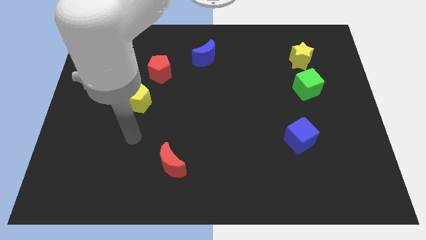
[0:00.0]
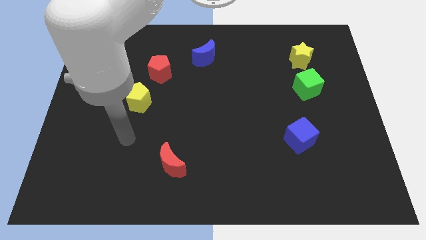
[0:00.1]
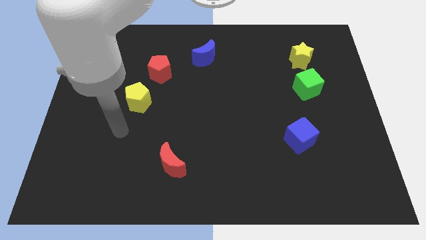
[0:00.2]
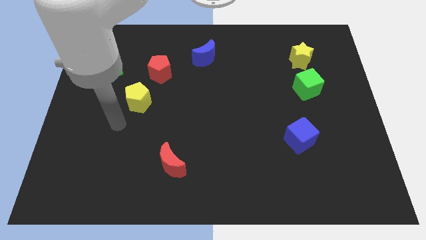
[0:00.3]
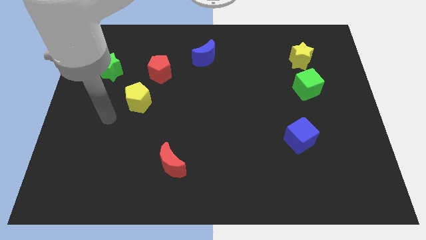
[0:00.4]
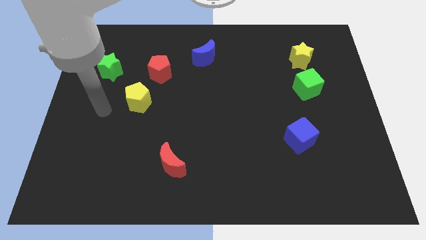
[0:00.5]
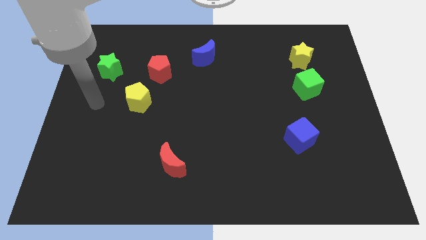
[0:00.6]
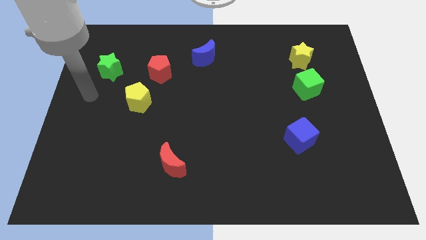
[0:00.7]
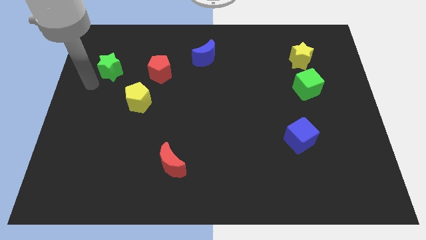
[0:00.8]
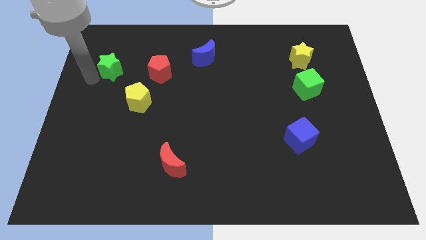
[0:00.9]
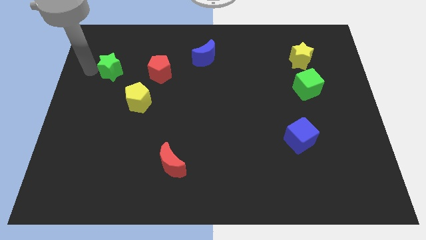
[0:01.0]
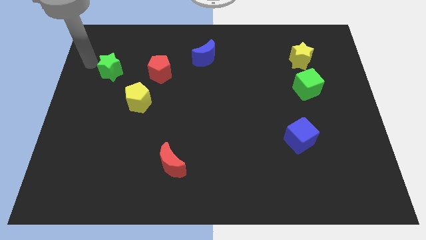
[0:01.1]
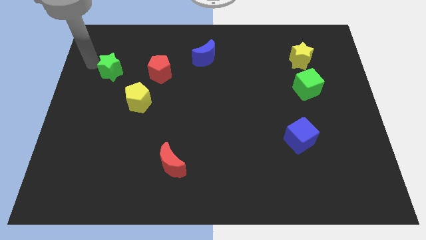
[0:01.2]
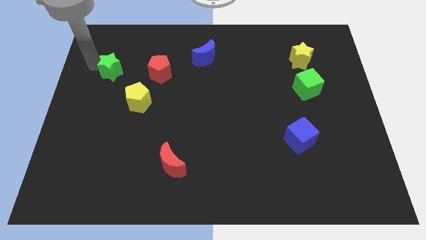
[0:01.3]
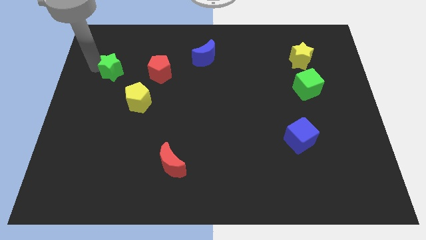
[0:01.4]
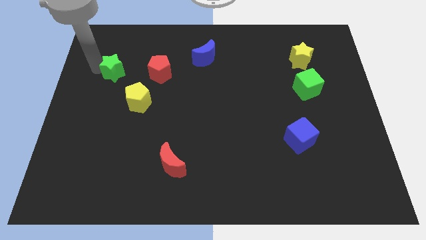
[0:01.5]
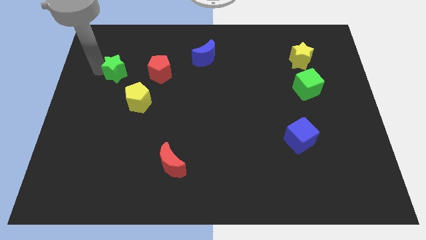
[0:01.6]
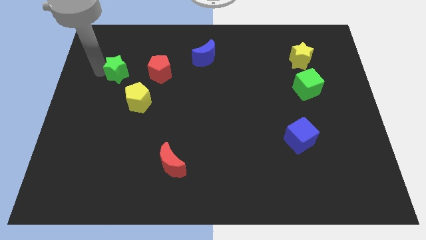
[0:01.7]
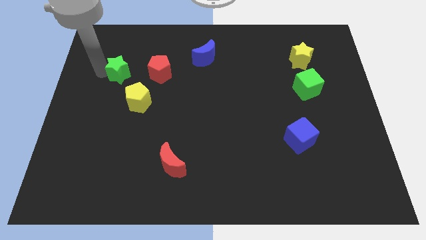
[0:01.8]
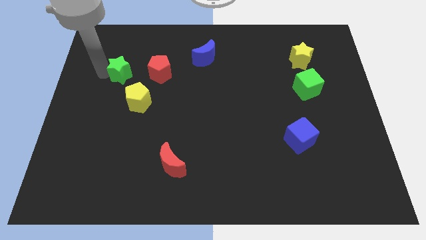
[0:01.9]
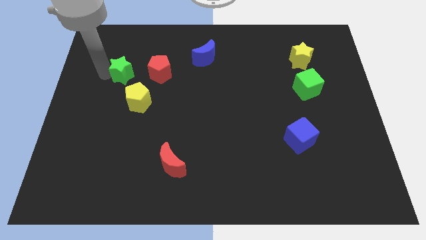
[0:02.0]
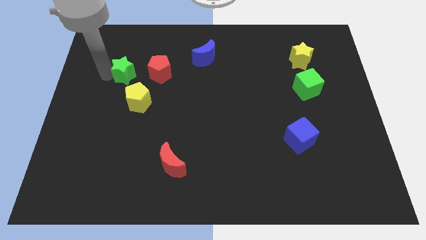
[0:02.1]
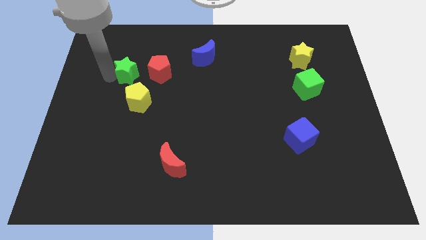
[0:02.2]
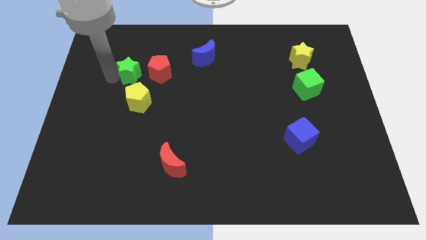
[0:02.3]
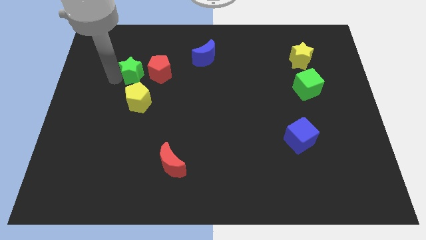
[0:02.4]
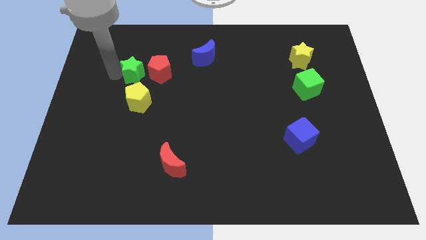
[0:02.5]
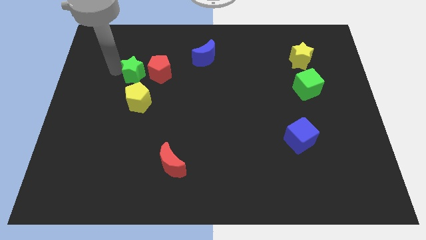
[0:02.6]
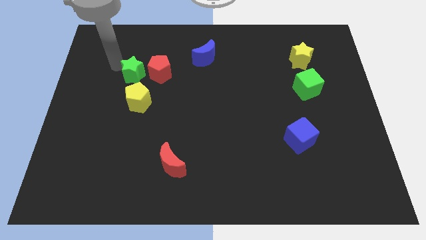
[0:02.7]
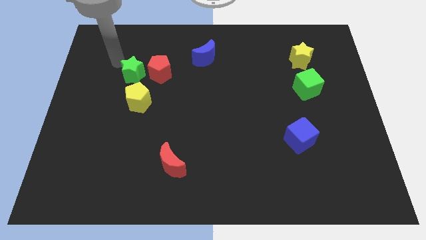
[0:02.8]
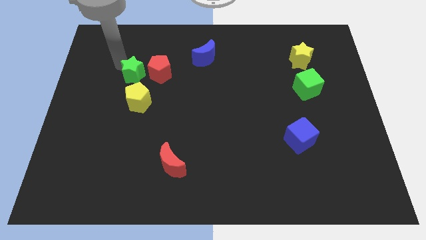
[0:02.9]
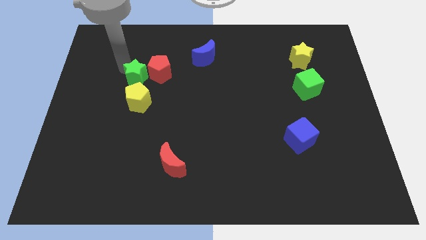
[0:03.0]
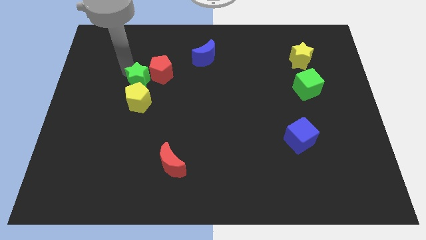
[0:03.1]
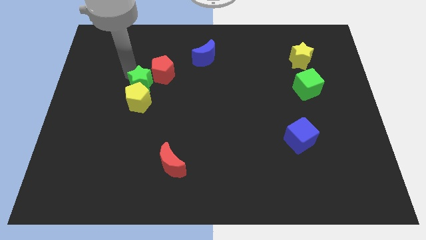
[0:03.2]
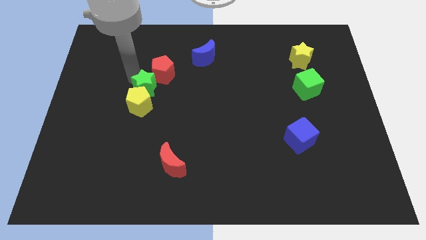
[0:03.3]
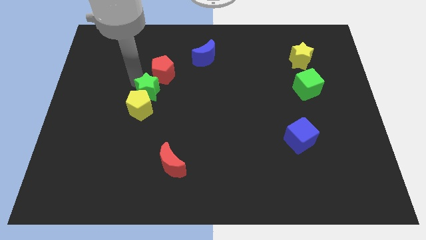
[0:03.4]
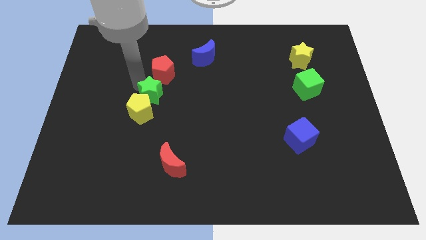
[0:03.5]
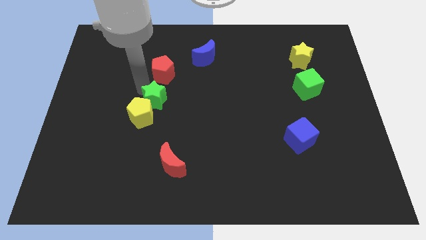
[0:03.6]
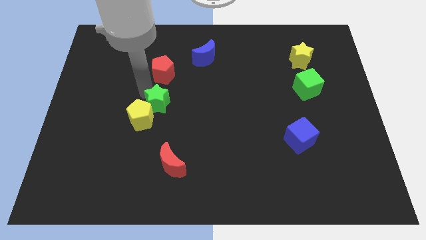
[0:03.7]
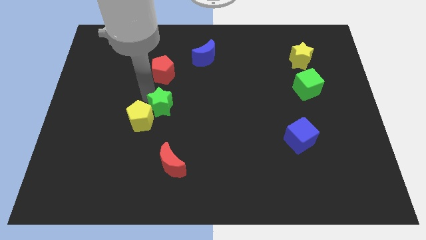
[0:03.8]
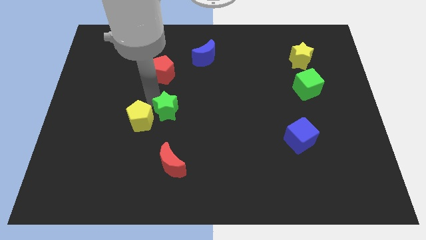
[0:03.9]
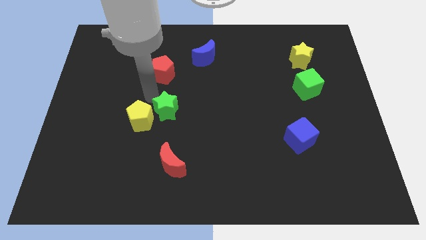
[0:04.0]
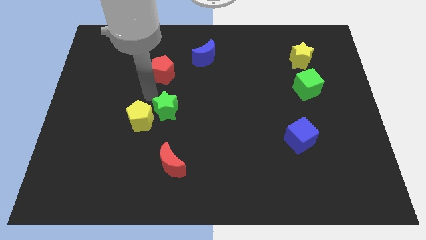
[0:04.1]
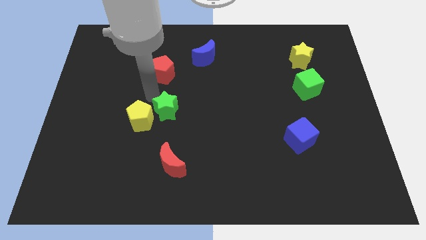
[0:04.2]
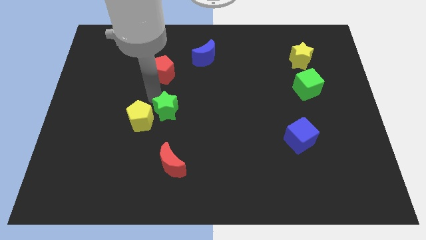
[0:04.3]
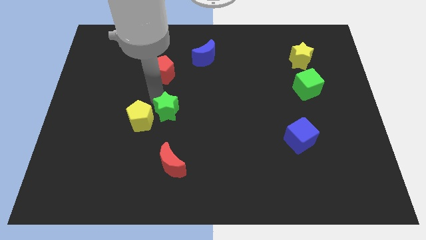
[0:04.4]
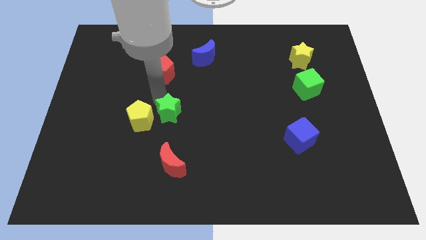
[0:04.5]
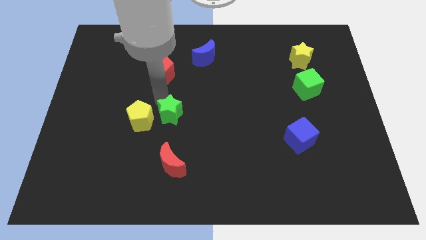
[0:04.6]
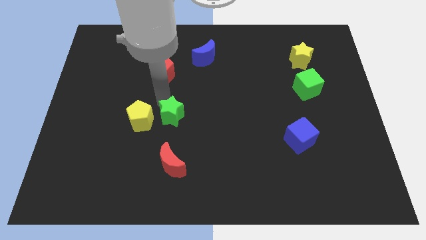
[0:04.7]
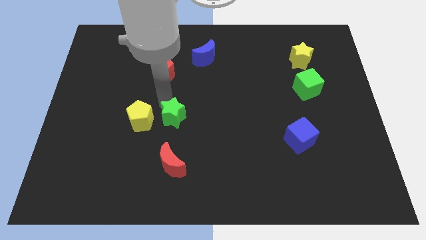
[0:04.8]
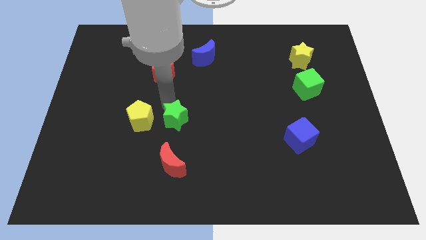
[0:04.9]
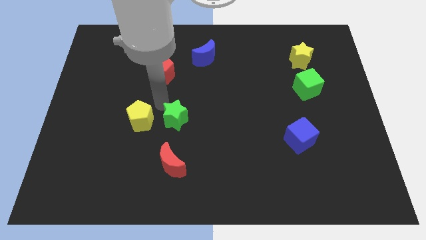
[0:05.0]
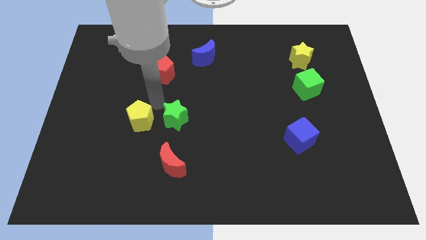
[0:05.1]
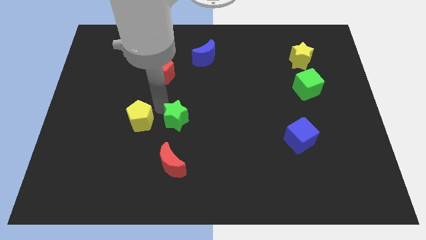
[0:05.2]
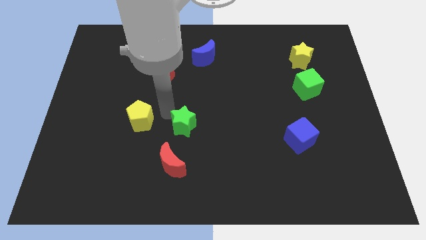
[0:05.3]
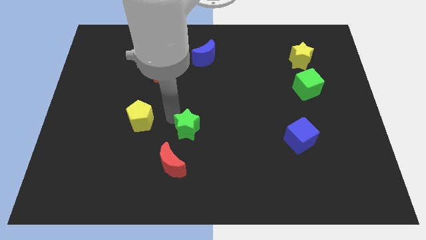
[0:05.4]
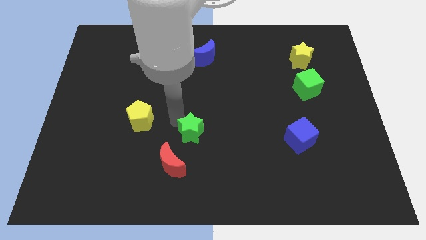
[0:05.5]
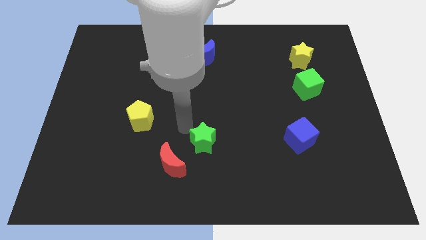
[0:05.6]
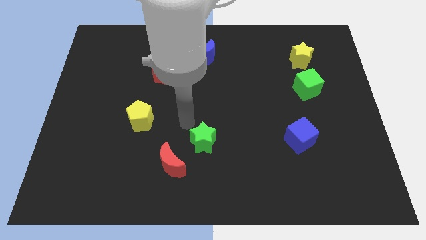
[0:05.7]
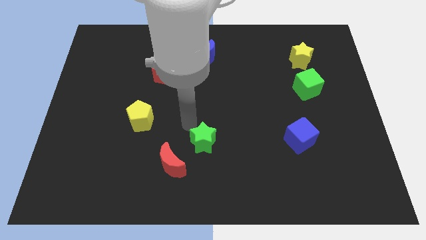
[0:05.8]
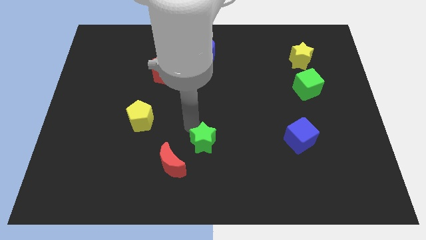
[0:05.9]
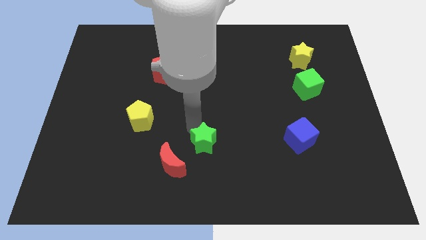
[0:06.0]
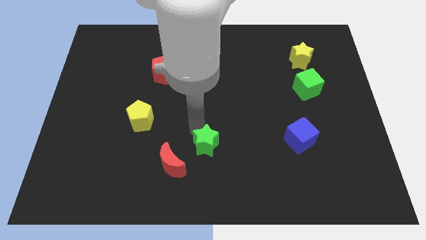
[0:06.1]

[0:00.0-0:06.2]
push the green star to the right side of the red moon

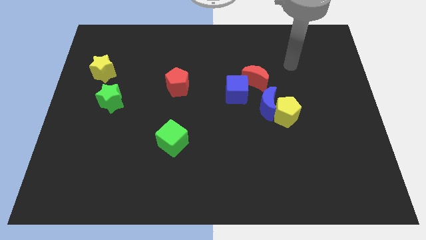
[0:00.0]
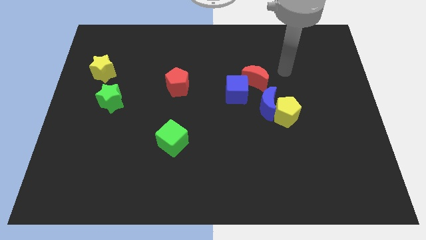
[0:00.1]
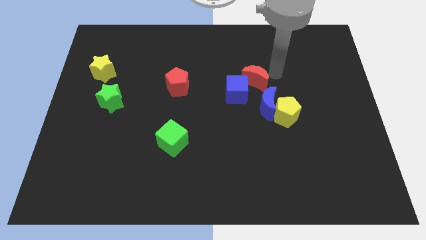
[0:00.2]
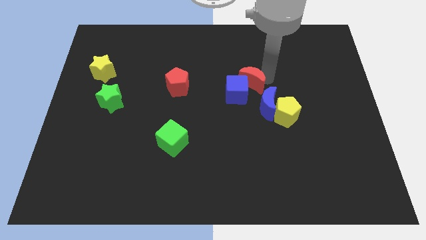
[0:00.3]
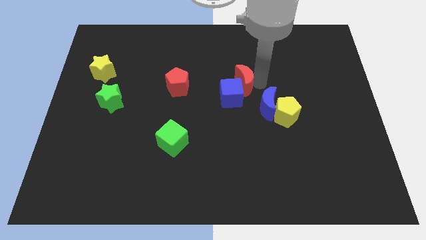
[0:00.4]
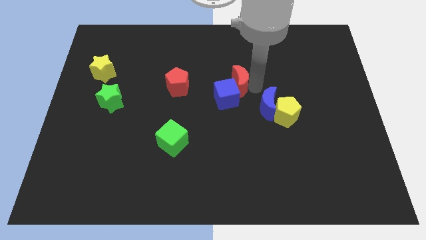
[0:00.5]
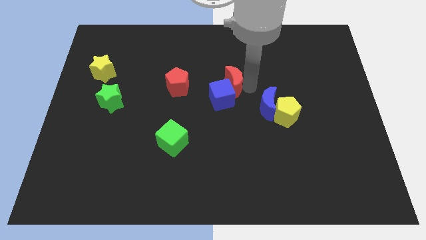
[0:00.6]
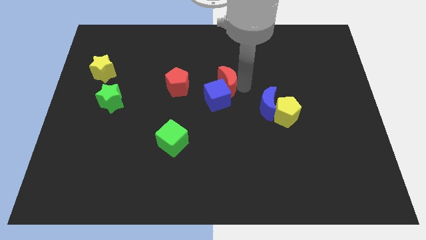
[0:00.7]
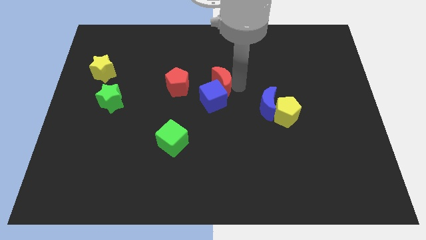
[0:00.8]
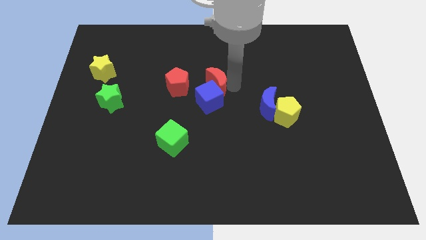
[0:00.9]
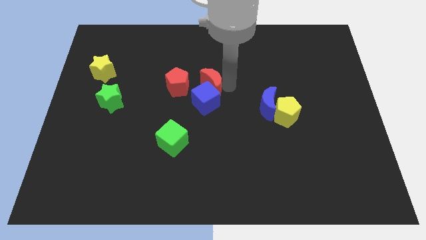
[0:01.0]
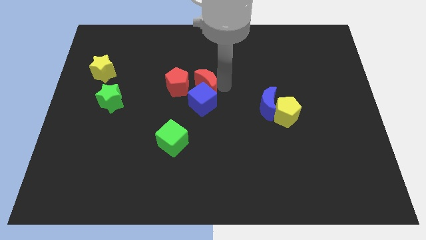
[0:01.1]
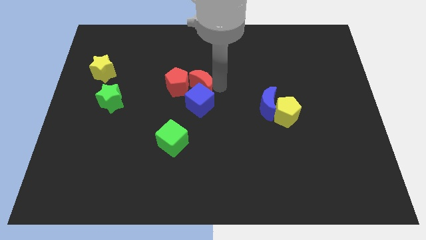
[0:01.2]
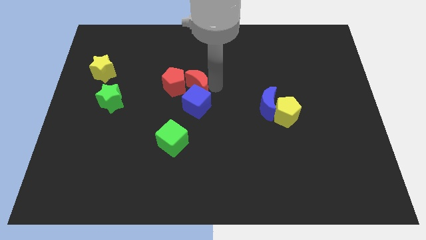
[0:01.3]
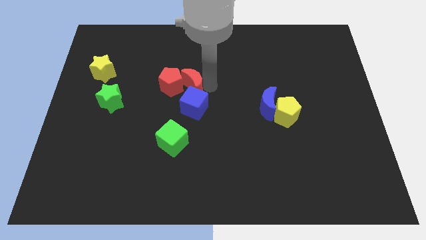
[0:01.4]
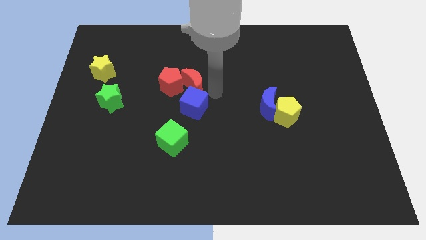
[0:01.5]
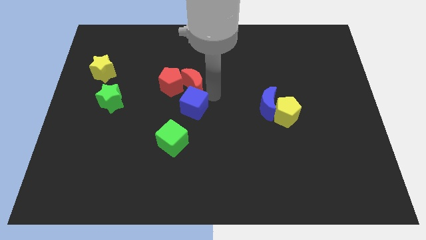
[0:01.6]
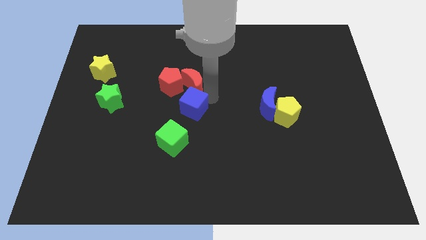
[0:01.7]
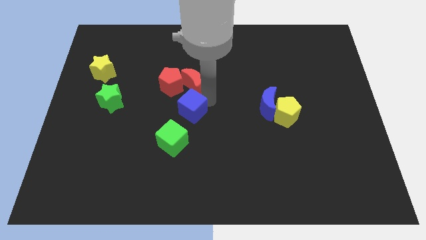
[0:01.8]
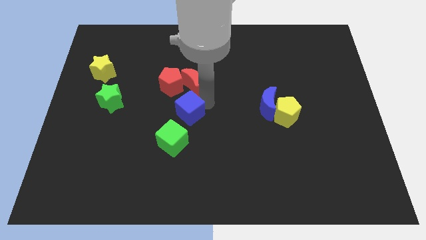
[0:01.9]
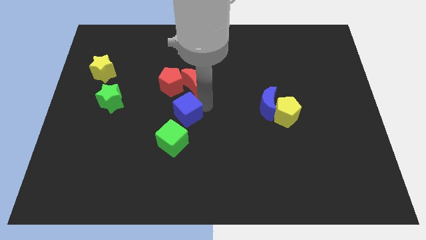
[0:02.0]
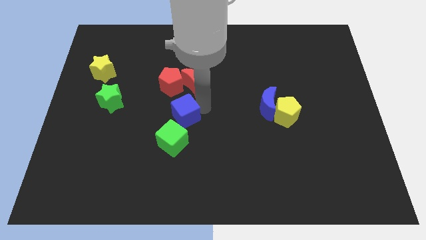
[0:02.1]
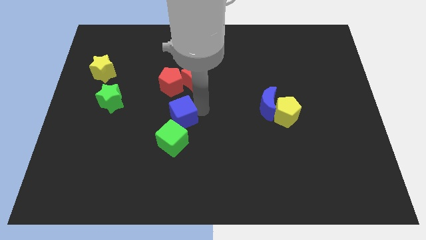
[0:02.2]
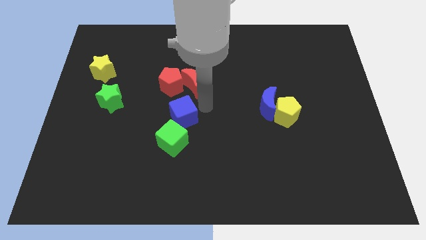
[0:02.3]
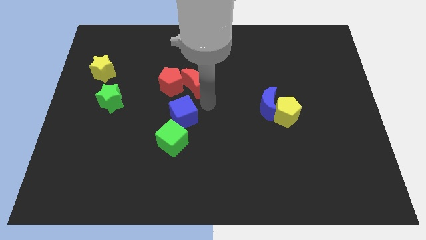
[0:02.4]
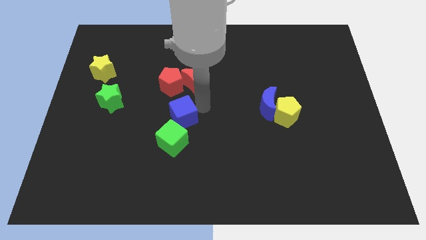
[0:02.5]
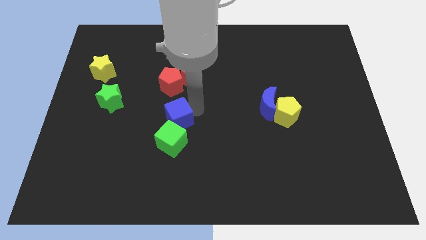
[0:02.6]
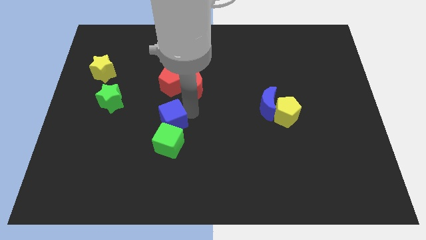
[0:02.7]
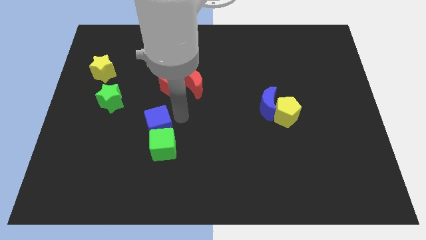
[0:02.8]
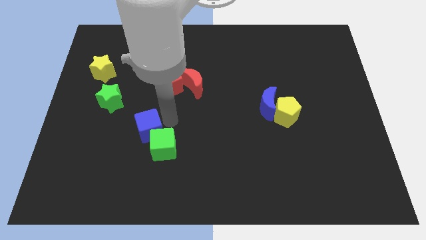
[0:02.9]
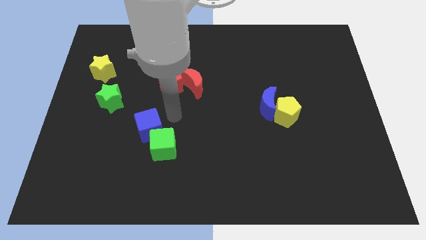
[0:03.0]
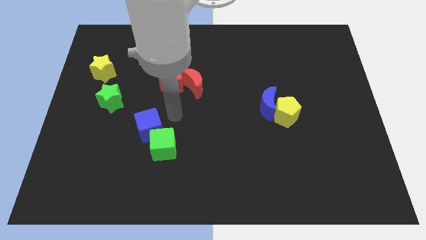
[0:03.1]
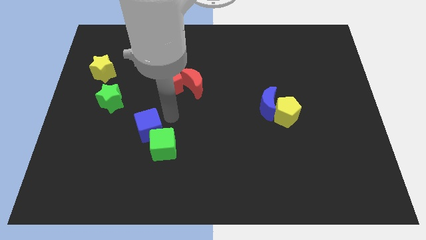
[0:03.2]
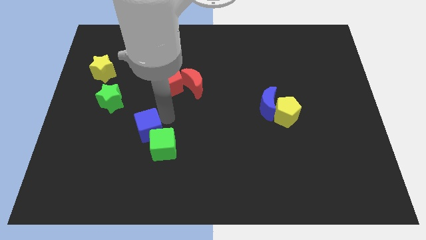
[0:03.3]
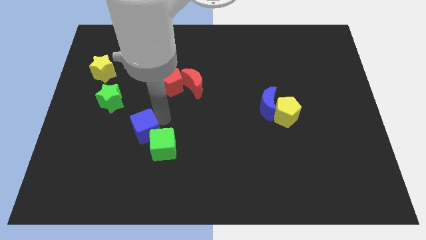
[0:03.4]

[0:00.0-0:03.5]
put the blue cube left of the green cube
